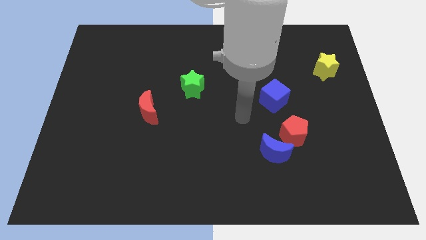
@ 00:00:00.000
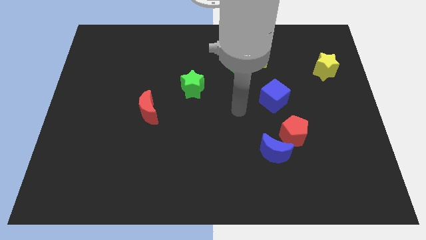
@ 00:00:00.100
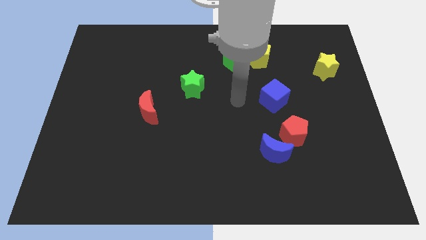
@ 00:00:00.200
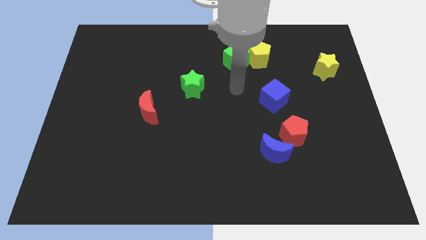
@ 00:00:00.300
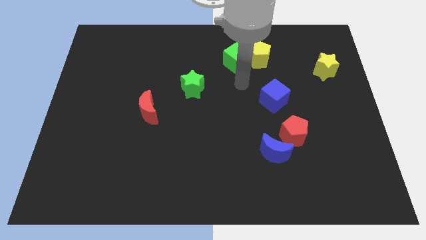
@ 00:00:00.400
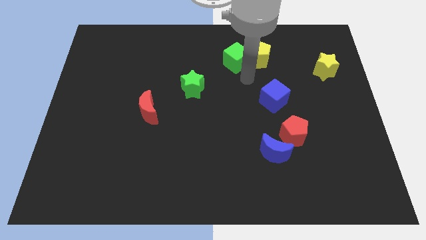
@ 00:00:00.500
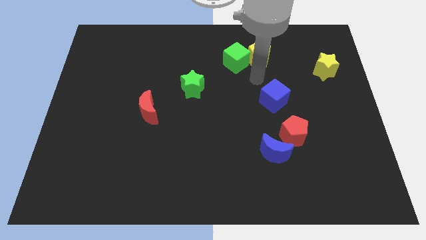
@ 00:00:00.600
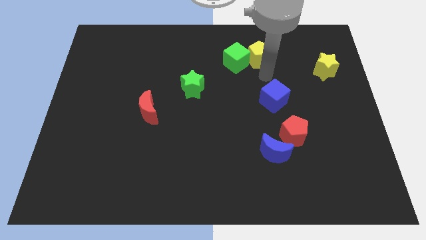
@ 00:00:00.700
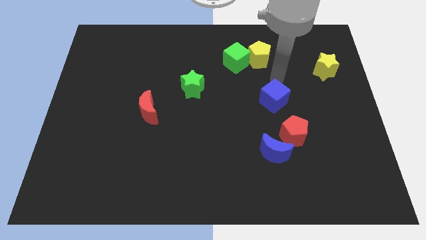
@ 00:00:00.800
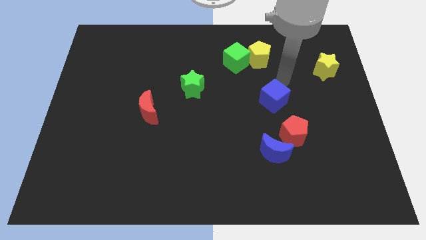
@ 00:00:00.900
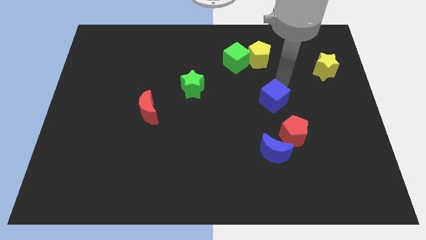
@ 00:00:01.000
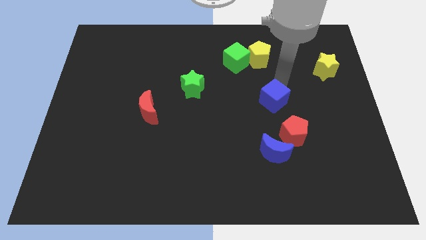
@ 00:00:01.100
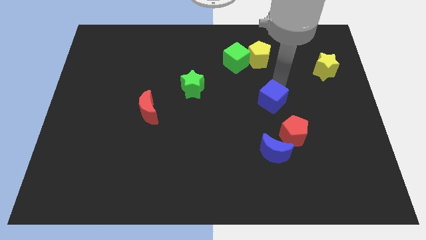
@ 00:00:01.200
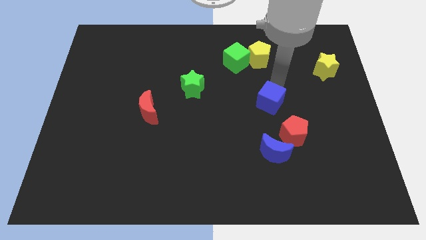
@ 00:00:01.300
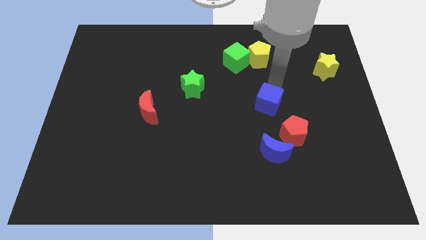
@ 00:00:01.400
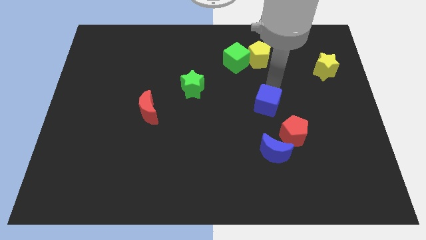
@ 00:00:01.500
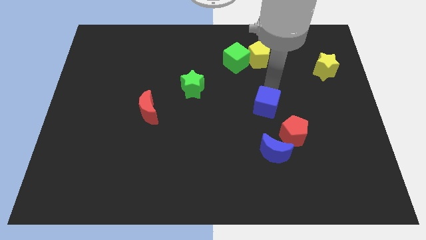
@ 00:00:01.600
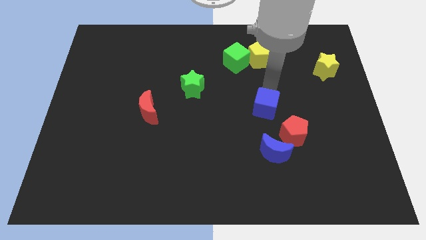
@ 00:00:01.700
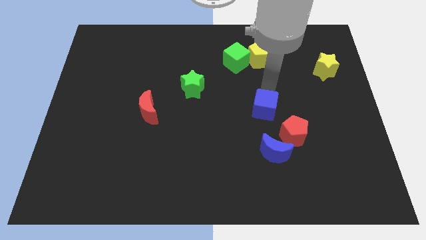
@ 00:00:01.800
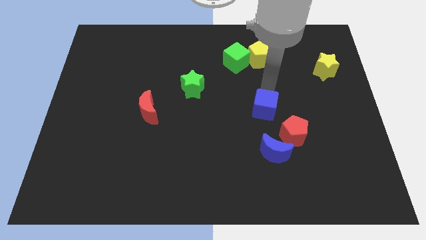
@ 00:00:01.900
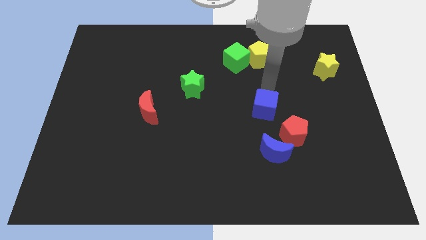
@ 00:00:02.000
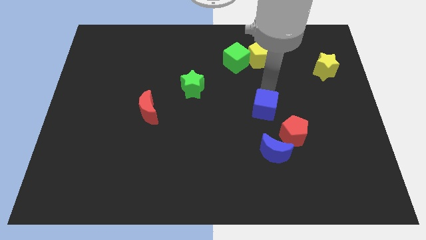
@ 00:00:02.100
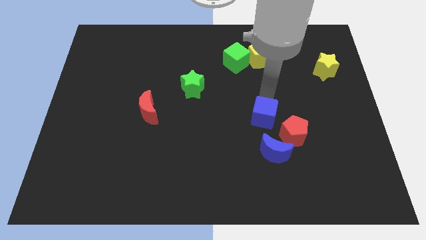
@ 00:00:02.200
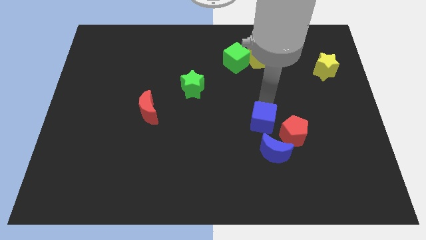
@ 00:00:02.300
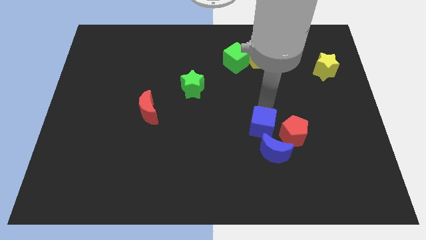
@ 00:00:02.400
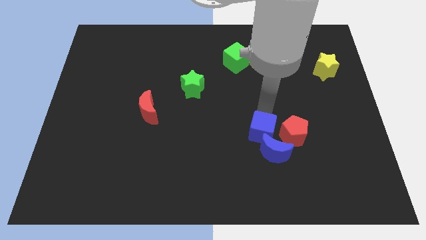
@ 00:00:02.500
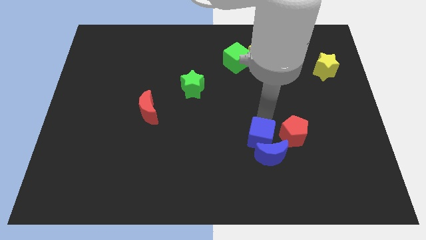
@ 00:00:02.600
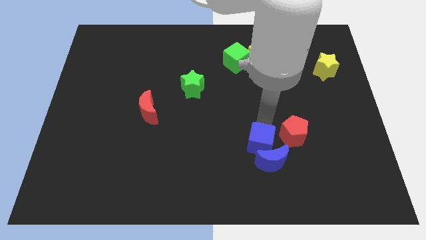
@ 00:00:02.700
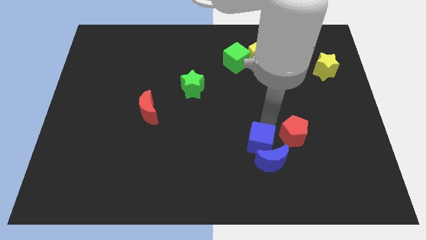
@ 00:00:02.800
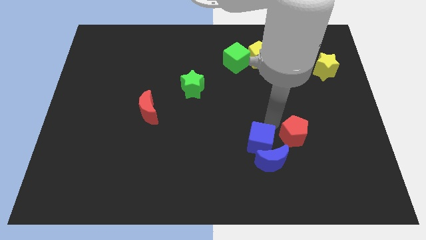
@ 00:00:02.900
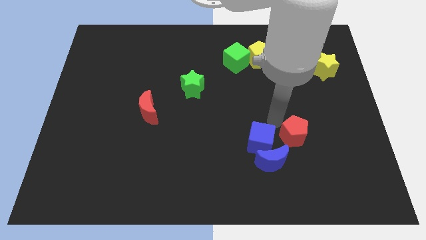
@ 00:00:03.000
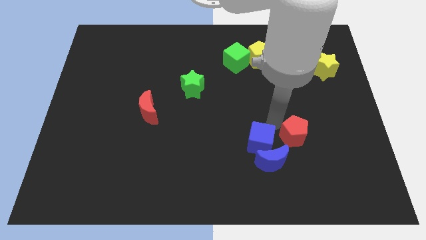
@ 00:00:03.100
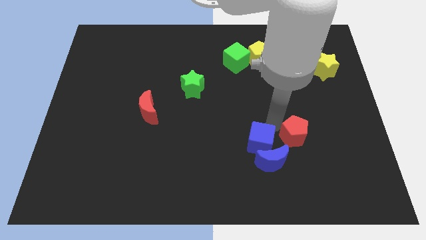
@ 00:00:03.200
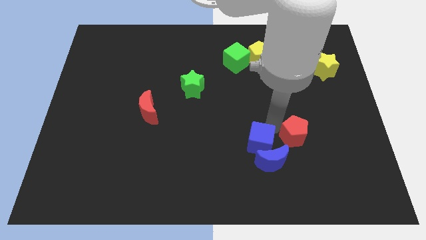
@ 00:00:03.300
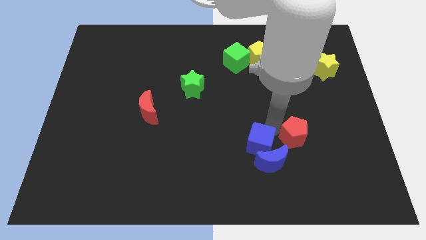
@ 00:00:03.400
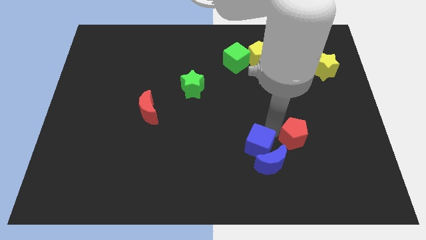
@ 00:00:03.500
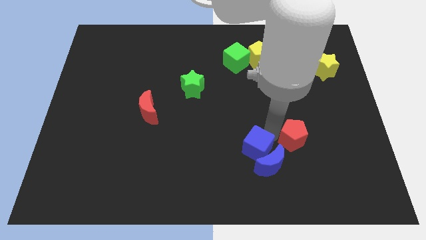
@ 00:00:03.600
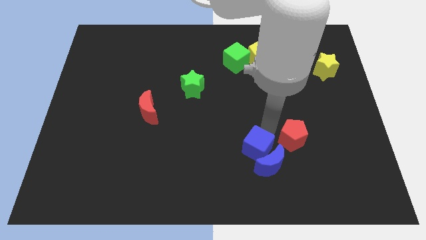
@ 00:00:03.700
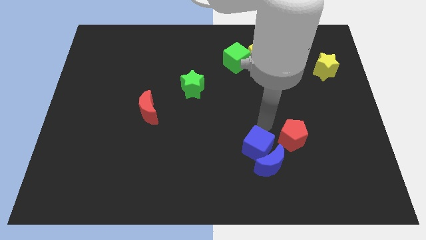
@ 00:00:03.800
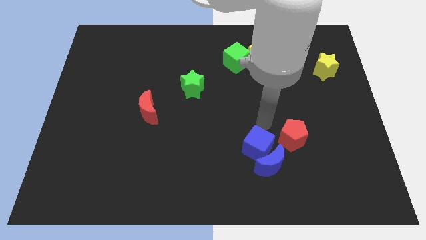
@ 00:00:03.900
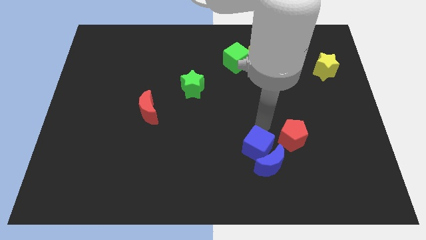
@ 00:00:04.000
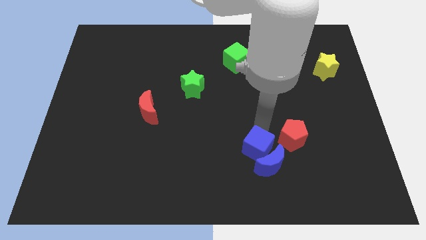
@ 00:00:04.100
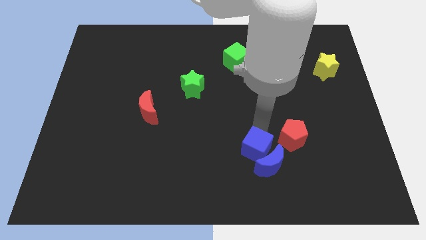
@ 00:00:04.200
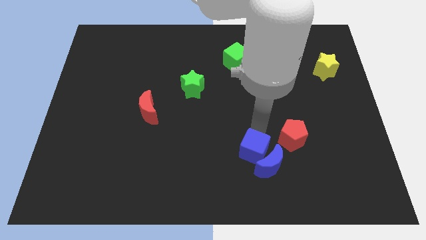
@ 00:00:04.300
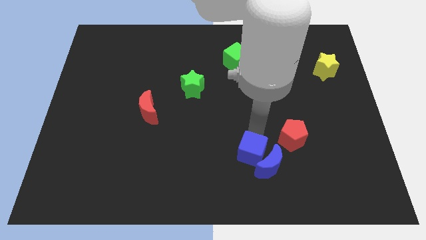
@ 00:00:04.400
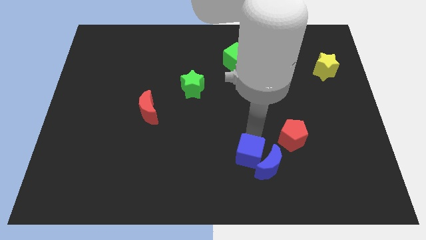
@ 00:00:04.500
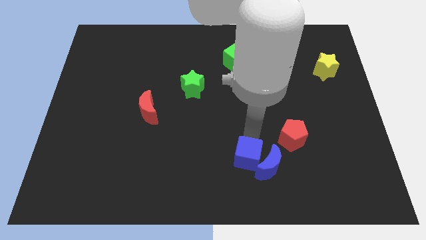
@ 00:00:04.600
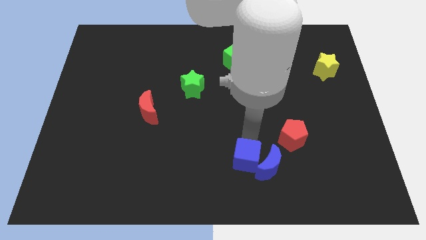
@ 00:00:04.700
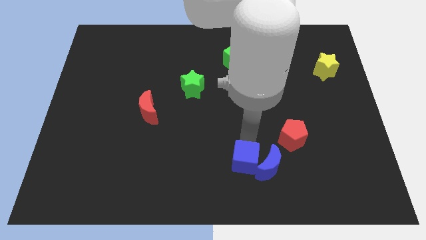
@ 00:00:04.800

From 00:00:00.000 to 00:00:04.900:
move the blue cube to the bottom side

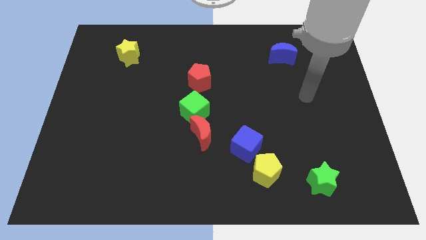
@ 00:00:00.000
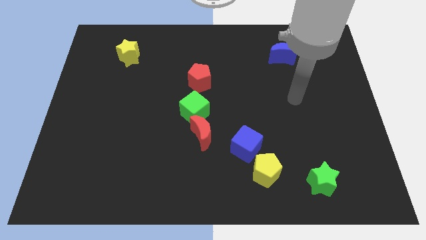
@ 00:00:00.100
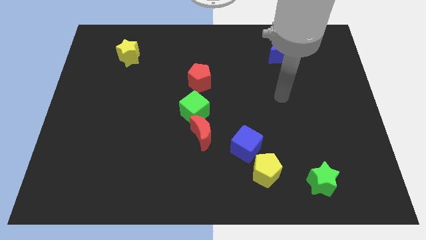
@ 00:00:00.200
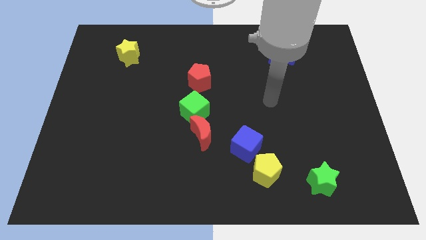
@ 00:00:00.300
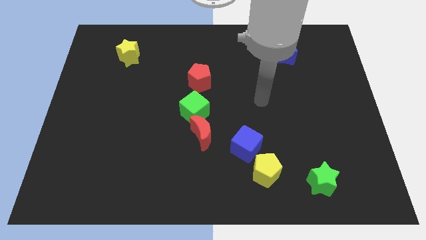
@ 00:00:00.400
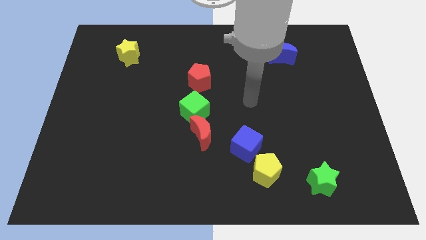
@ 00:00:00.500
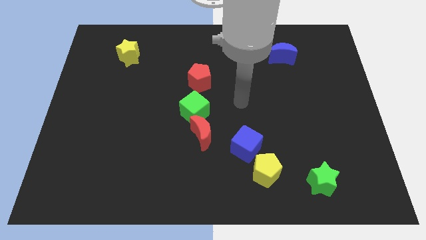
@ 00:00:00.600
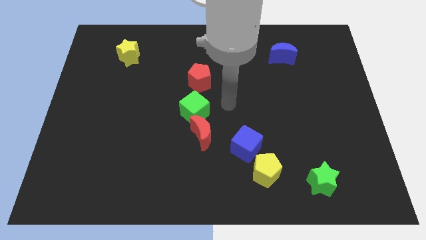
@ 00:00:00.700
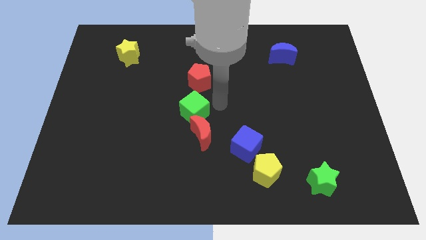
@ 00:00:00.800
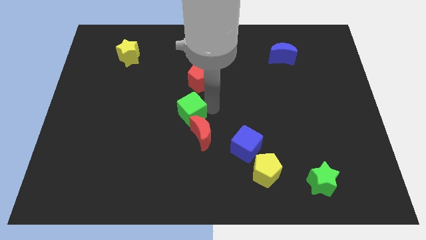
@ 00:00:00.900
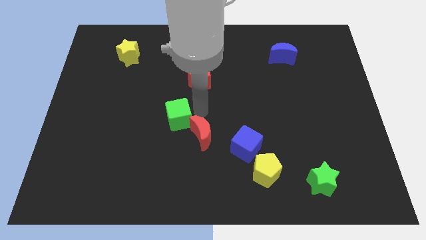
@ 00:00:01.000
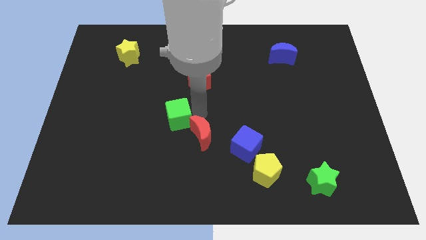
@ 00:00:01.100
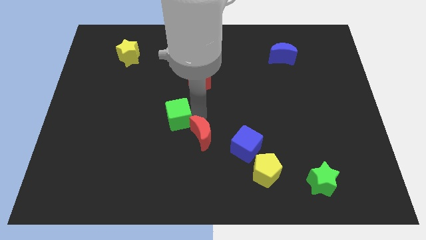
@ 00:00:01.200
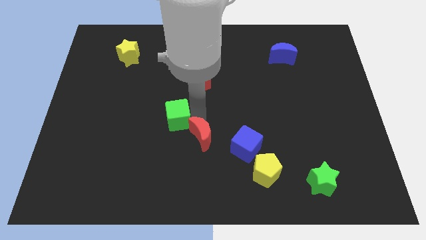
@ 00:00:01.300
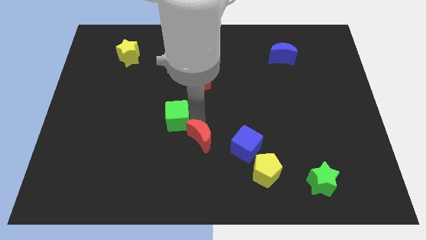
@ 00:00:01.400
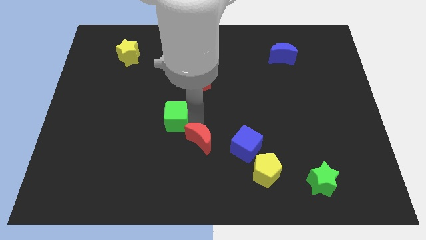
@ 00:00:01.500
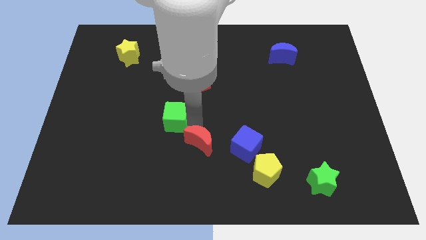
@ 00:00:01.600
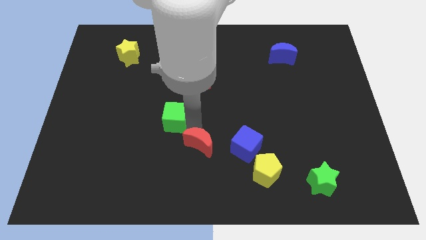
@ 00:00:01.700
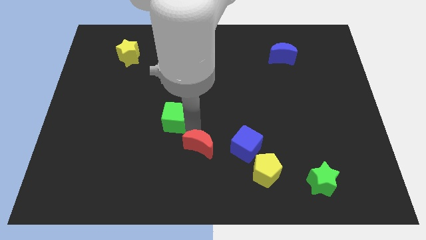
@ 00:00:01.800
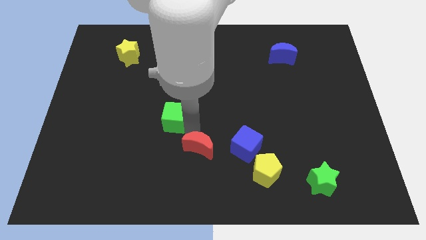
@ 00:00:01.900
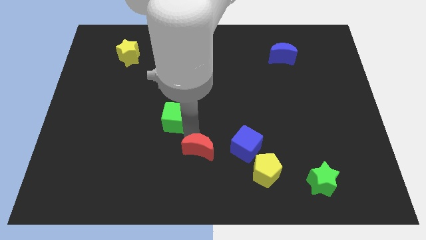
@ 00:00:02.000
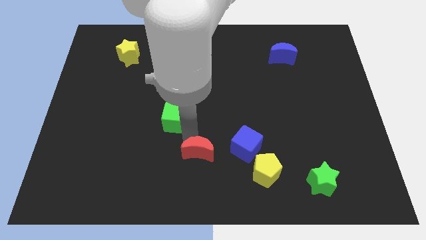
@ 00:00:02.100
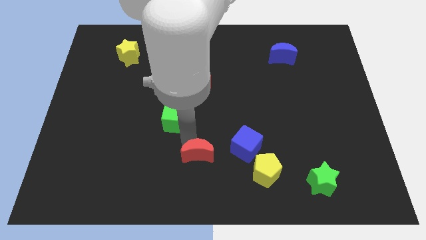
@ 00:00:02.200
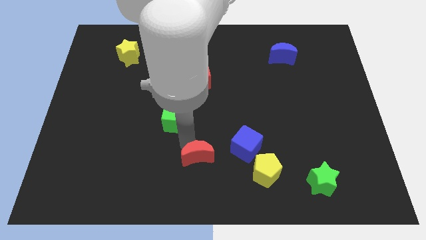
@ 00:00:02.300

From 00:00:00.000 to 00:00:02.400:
push the red moon to the bottom
